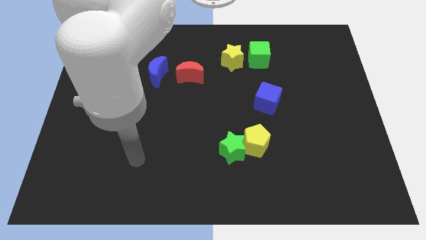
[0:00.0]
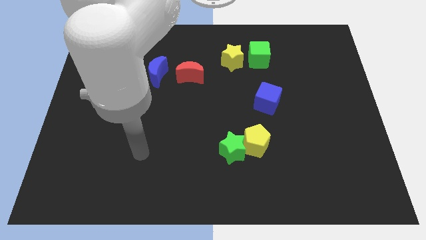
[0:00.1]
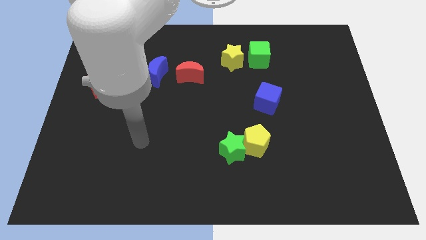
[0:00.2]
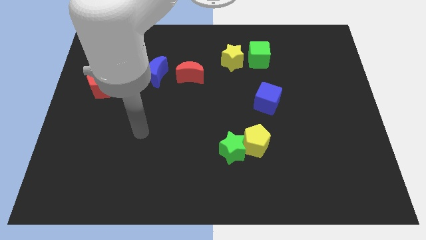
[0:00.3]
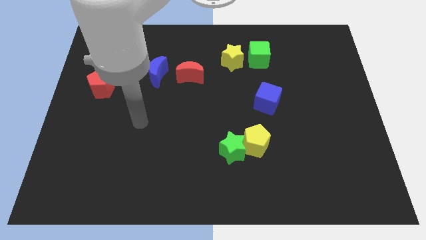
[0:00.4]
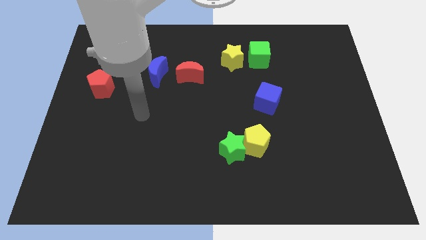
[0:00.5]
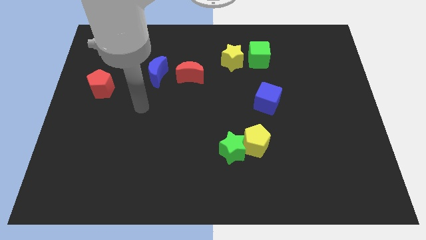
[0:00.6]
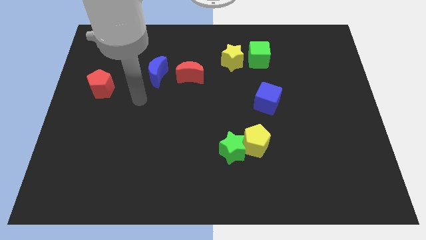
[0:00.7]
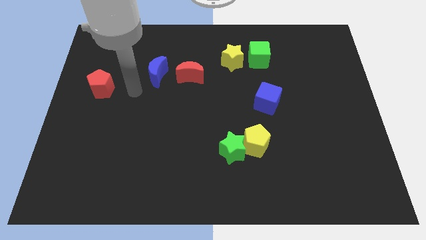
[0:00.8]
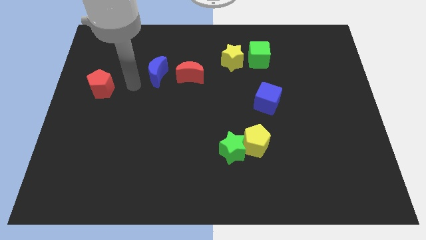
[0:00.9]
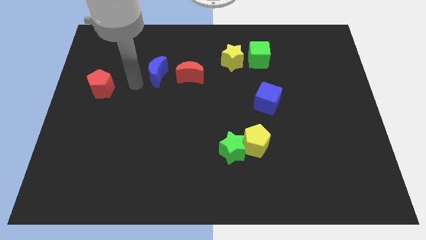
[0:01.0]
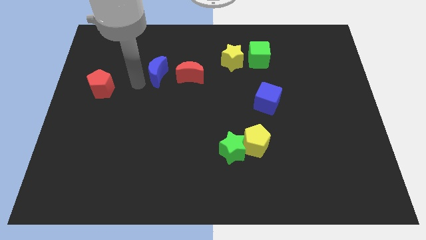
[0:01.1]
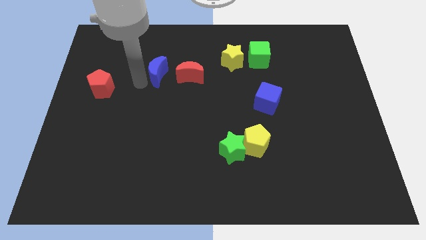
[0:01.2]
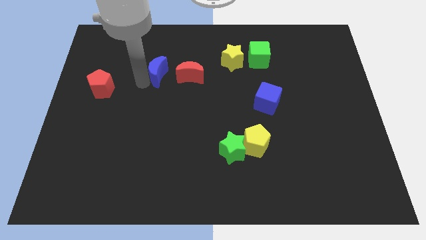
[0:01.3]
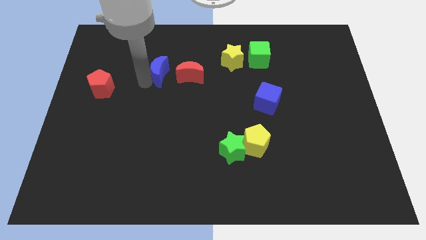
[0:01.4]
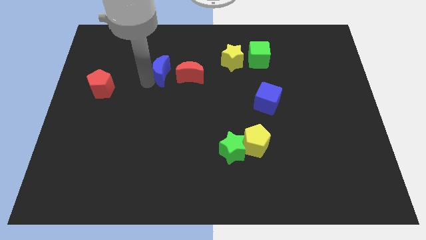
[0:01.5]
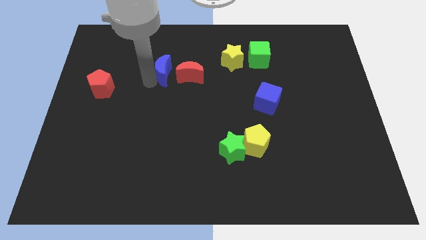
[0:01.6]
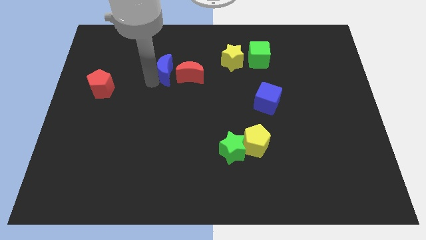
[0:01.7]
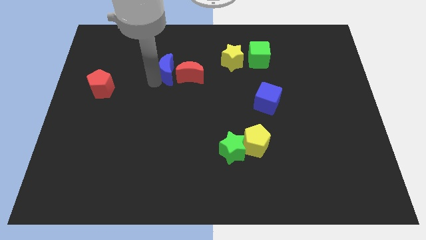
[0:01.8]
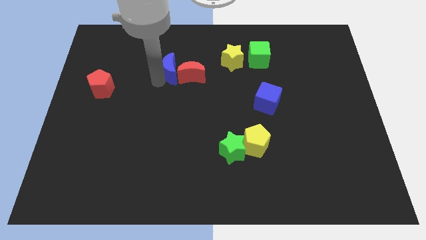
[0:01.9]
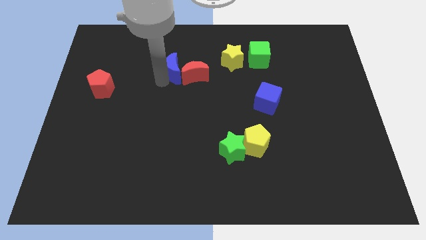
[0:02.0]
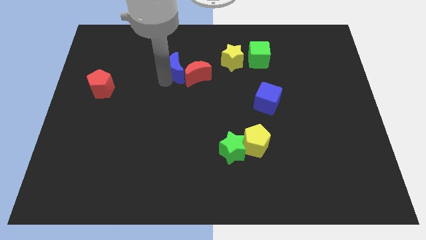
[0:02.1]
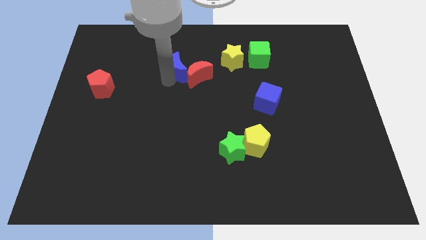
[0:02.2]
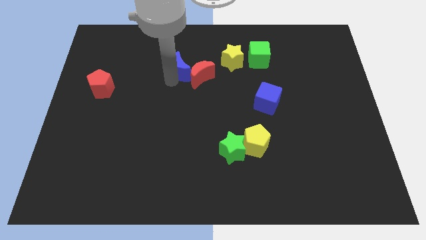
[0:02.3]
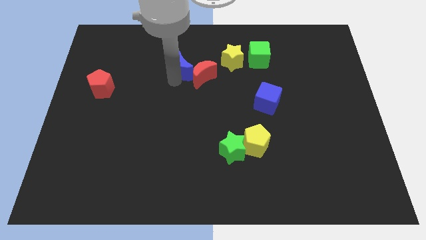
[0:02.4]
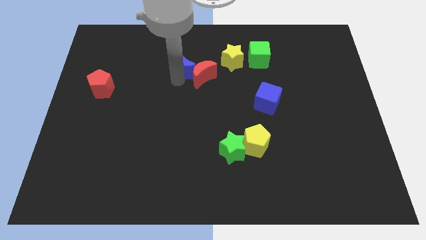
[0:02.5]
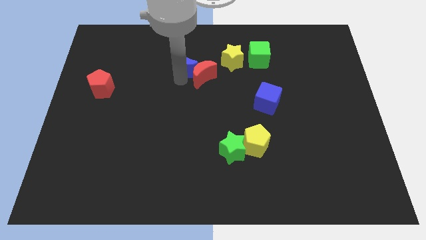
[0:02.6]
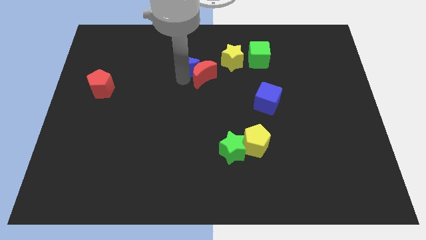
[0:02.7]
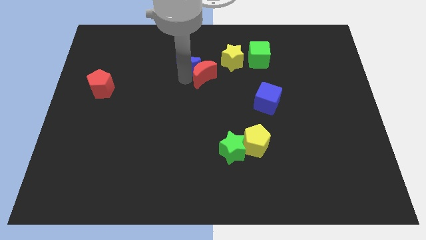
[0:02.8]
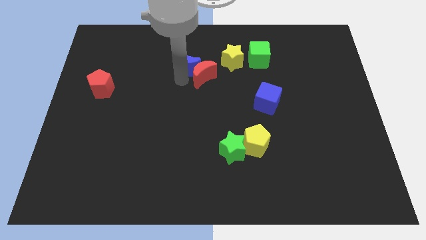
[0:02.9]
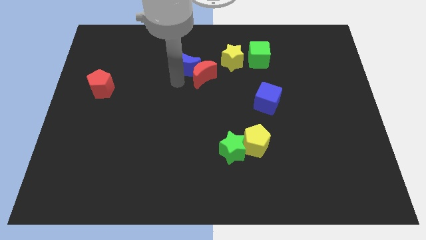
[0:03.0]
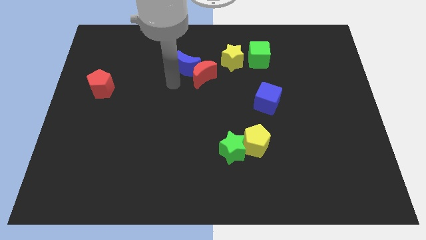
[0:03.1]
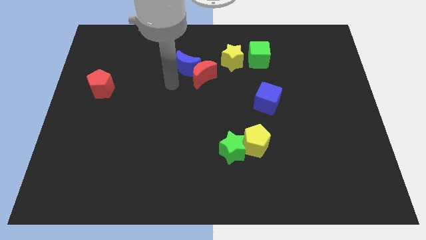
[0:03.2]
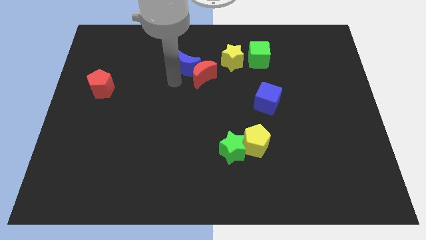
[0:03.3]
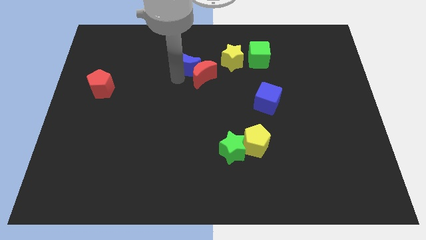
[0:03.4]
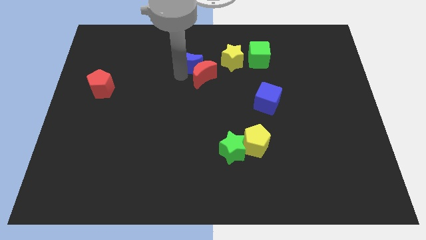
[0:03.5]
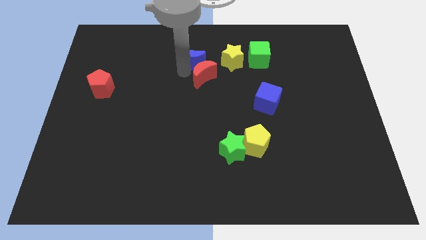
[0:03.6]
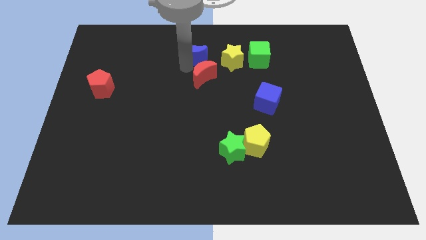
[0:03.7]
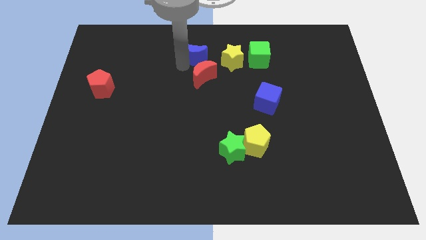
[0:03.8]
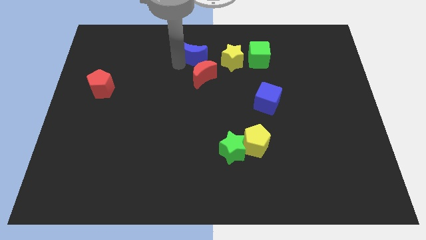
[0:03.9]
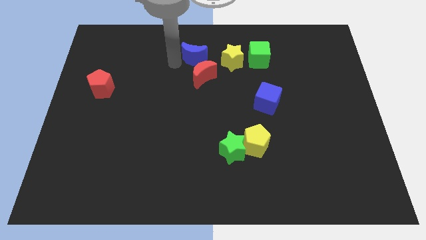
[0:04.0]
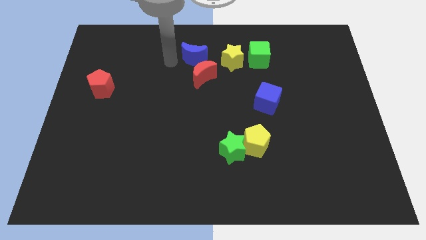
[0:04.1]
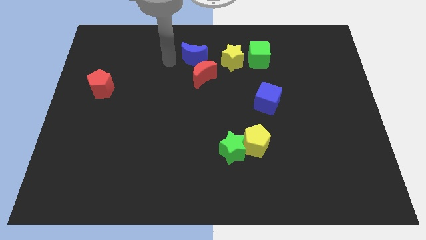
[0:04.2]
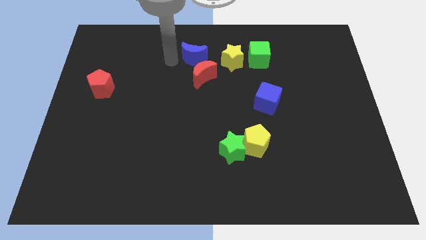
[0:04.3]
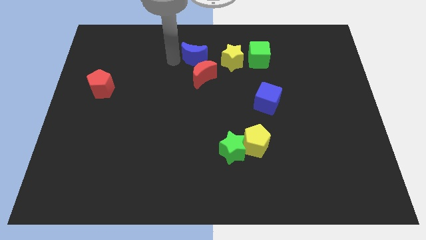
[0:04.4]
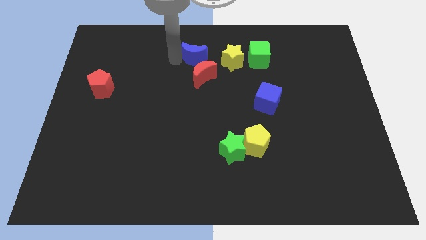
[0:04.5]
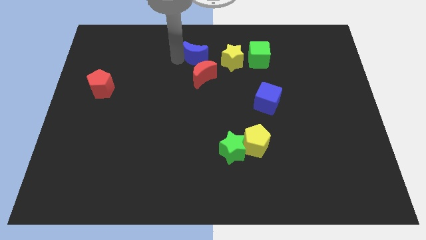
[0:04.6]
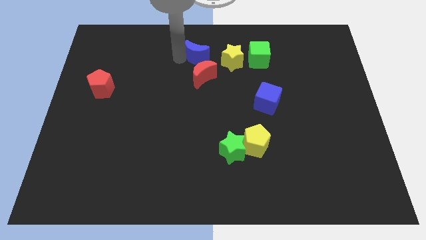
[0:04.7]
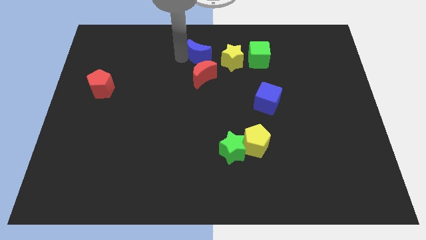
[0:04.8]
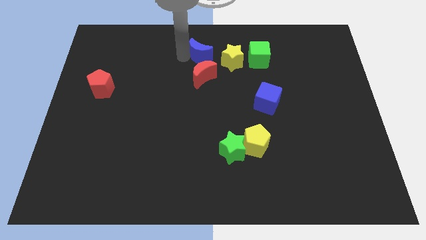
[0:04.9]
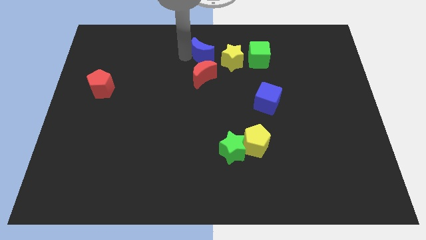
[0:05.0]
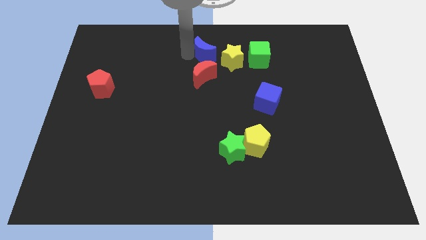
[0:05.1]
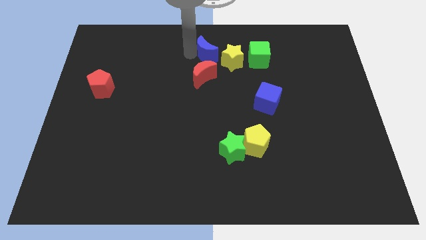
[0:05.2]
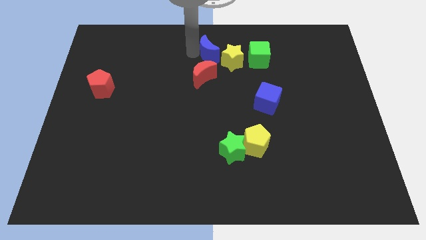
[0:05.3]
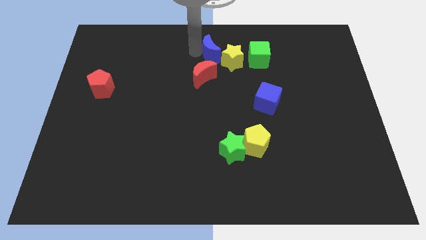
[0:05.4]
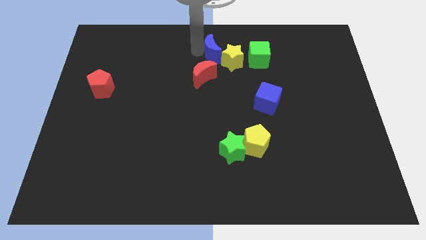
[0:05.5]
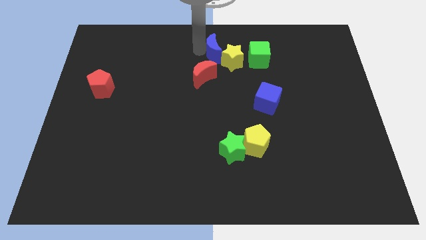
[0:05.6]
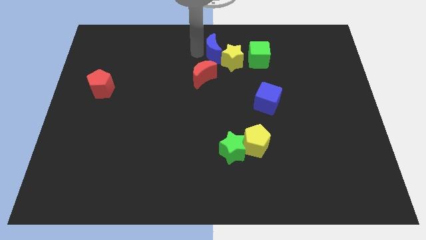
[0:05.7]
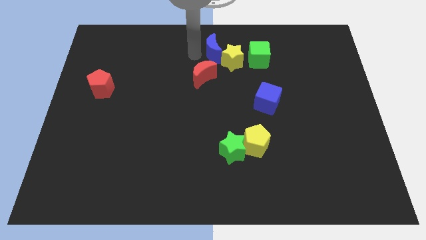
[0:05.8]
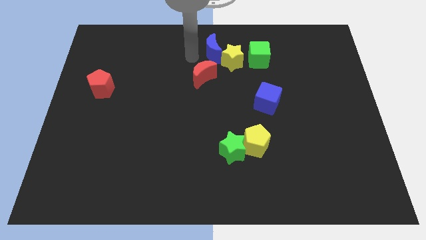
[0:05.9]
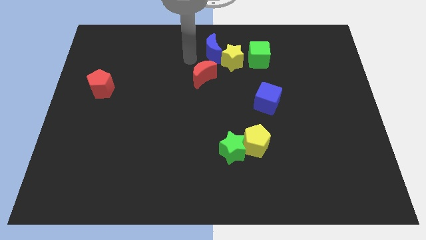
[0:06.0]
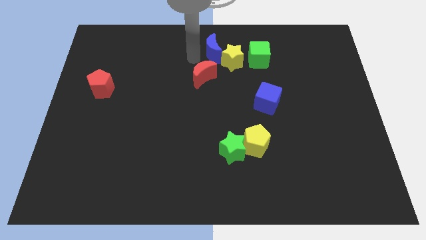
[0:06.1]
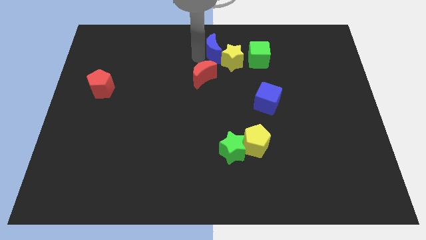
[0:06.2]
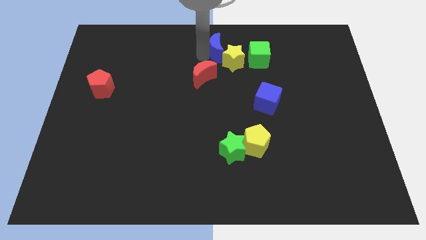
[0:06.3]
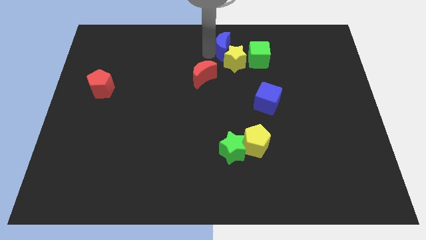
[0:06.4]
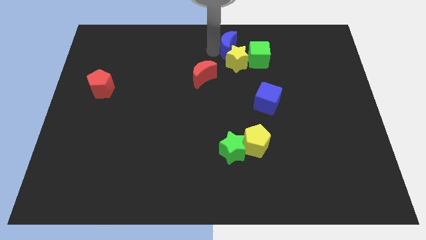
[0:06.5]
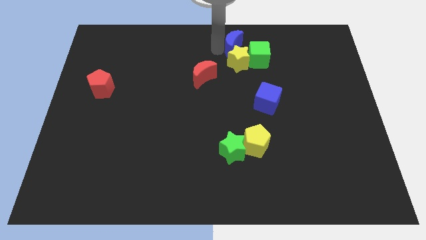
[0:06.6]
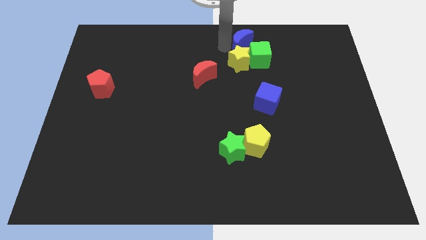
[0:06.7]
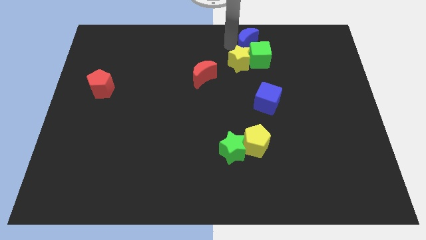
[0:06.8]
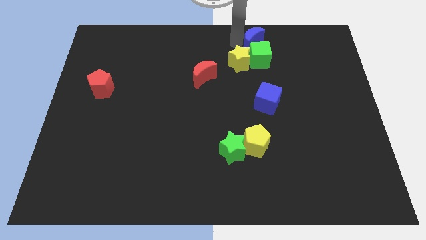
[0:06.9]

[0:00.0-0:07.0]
push the blue moon next to the green cube
